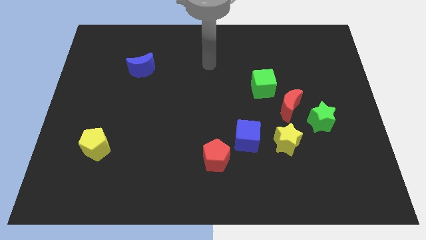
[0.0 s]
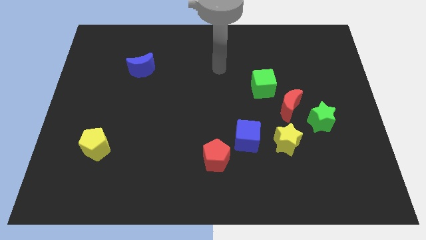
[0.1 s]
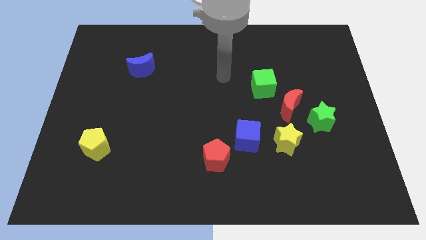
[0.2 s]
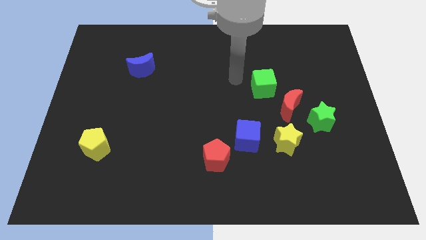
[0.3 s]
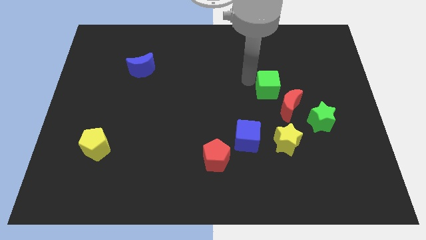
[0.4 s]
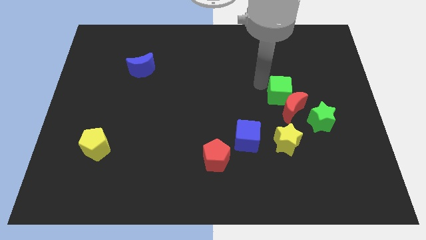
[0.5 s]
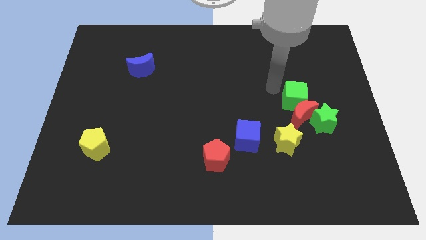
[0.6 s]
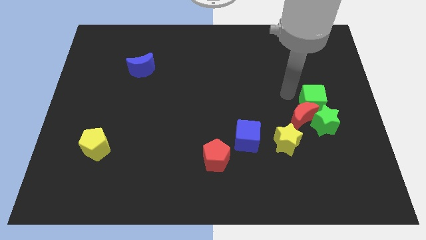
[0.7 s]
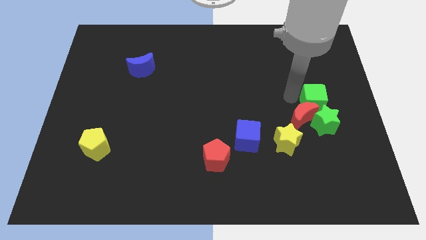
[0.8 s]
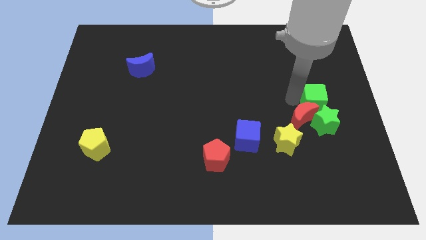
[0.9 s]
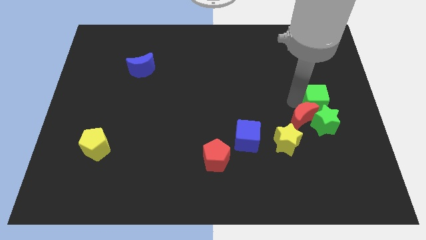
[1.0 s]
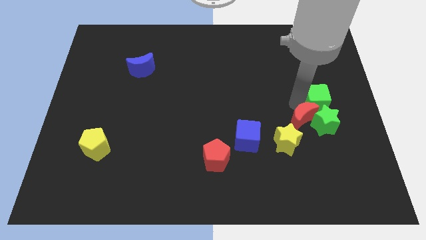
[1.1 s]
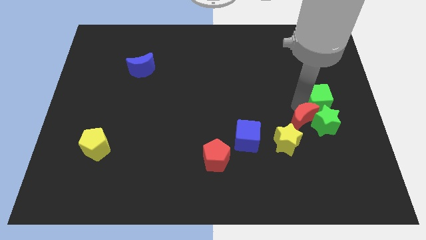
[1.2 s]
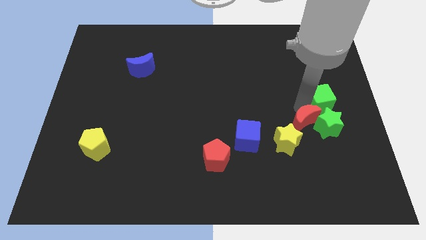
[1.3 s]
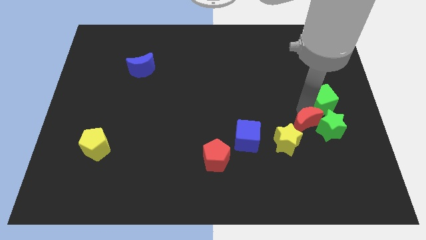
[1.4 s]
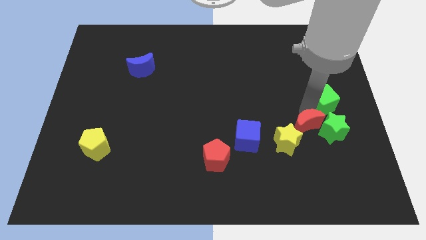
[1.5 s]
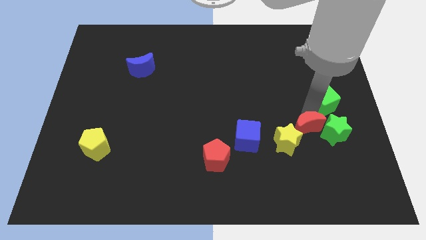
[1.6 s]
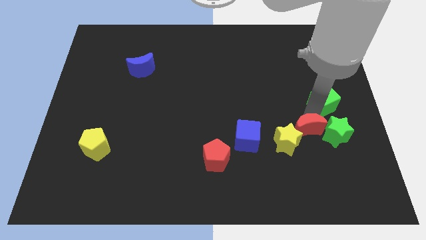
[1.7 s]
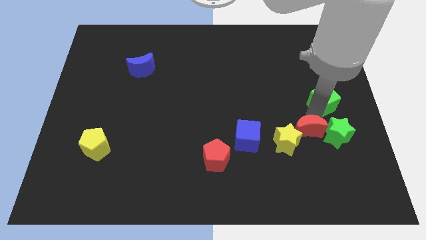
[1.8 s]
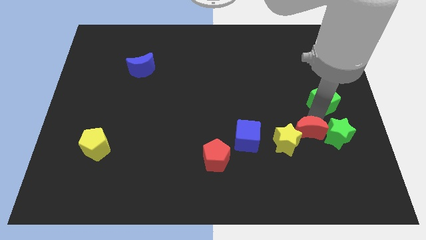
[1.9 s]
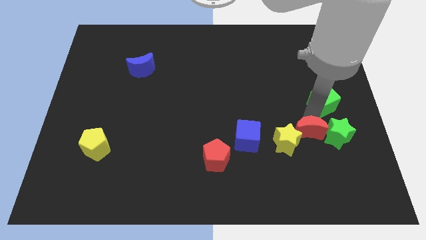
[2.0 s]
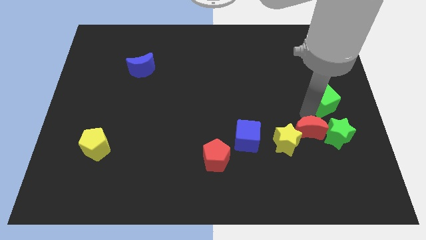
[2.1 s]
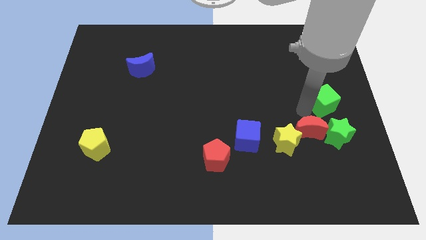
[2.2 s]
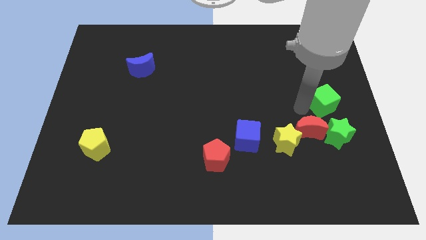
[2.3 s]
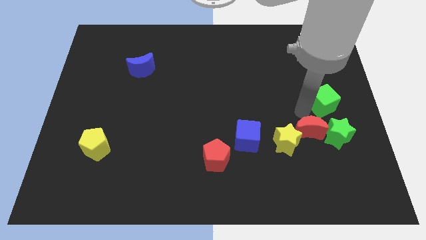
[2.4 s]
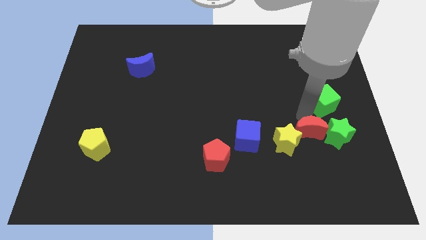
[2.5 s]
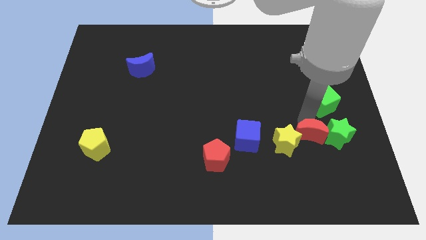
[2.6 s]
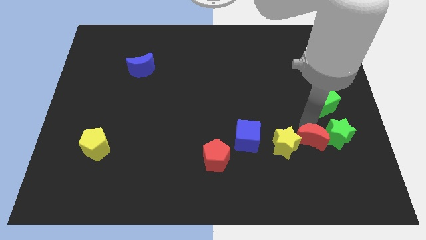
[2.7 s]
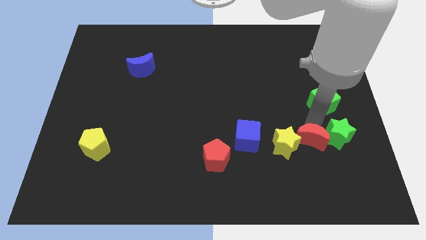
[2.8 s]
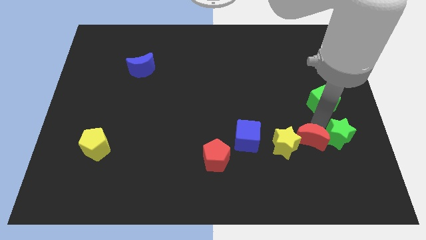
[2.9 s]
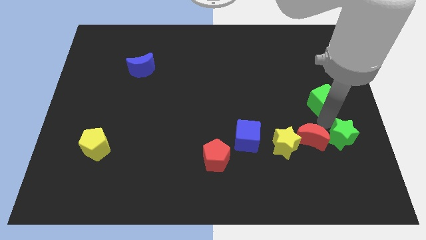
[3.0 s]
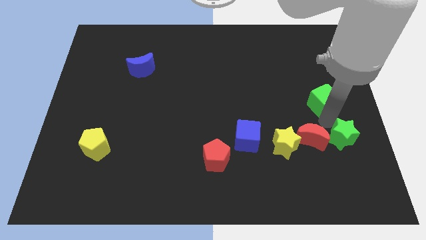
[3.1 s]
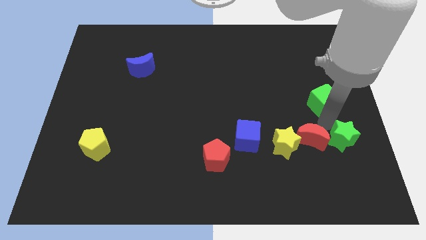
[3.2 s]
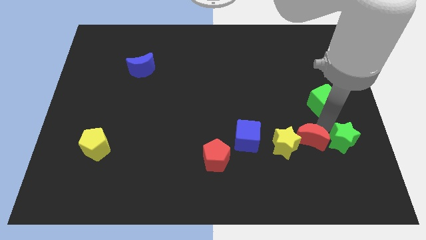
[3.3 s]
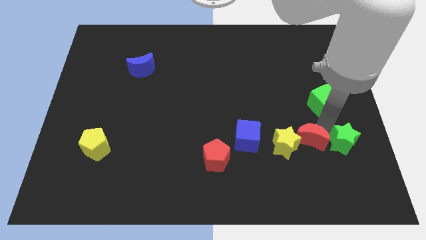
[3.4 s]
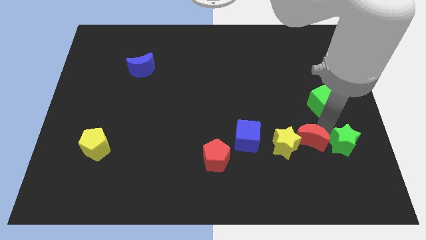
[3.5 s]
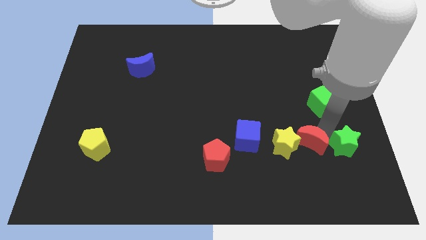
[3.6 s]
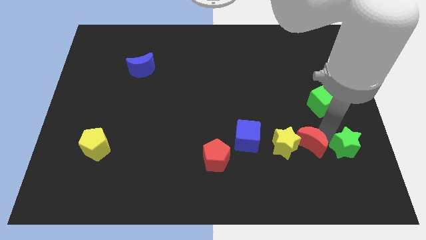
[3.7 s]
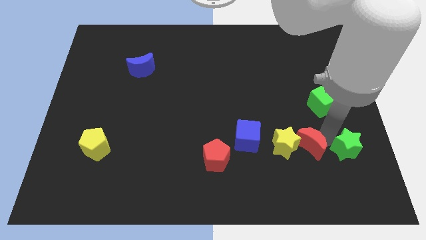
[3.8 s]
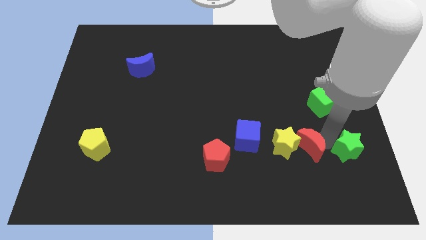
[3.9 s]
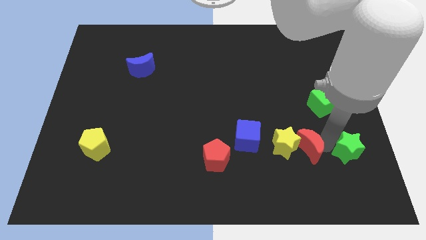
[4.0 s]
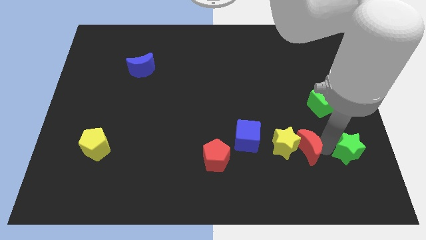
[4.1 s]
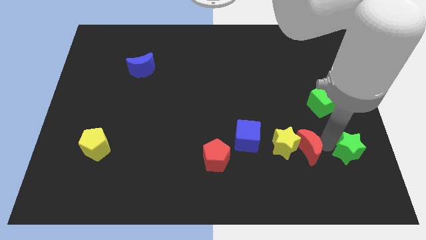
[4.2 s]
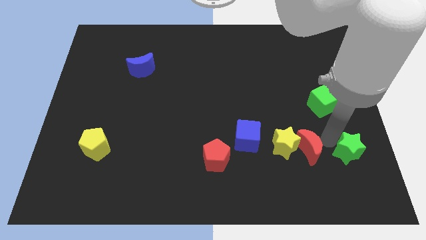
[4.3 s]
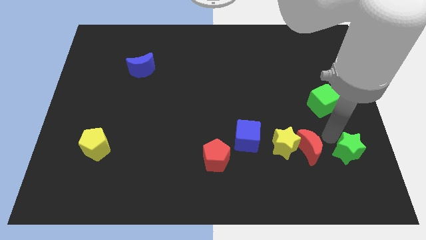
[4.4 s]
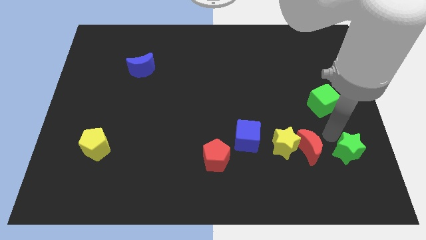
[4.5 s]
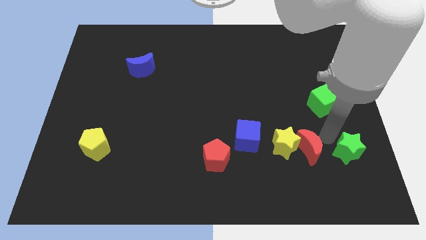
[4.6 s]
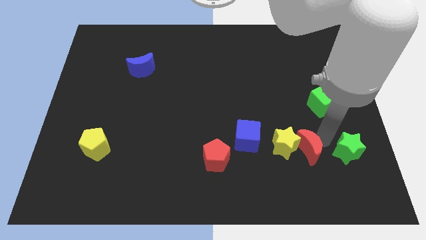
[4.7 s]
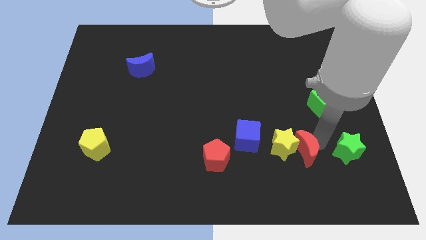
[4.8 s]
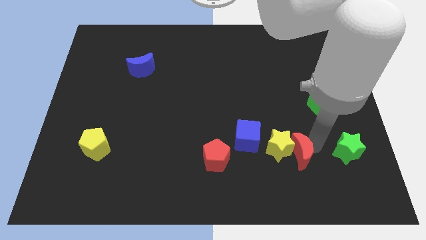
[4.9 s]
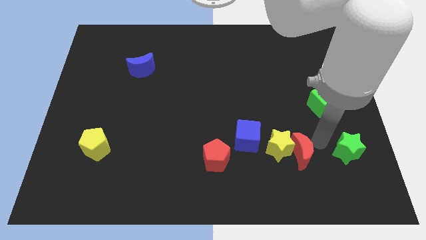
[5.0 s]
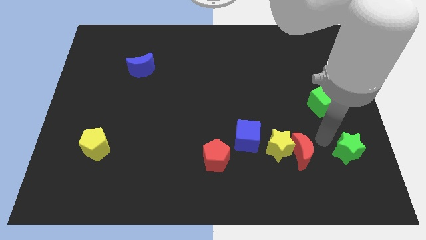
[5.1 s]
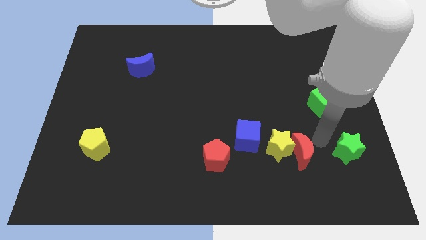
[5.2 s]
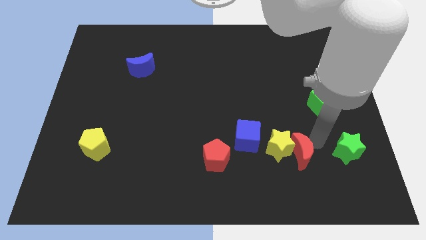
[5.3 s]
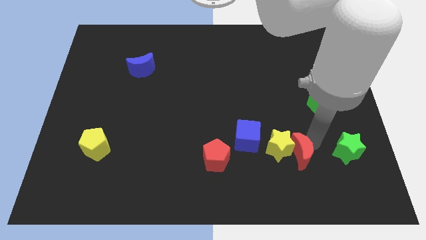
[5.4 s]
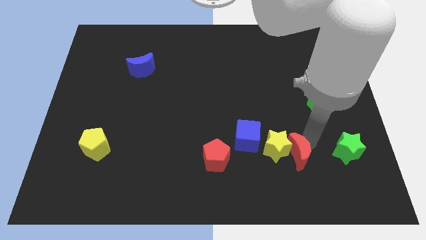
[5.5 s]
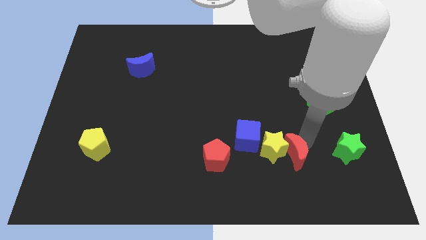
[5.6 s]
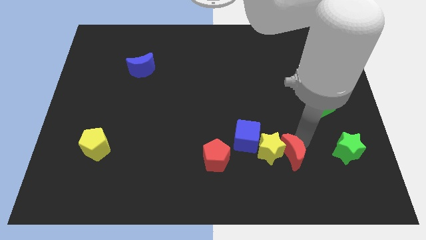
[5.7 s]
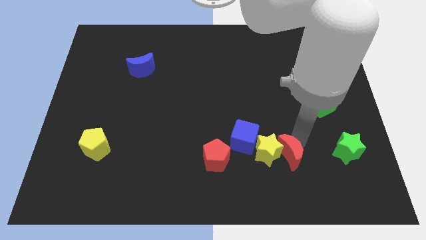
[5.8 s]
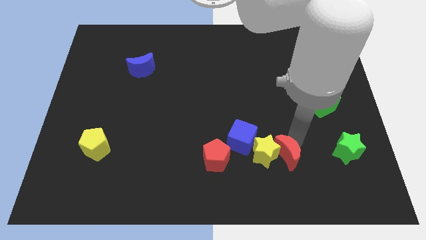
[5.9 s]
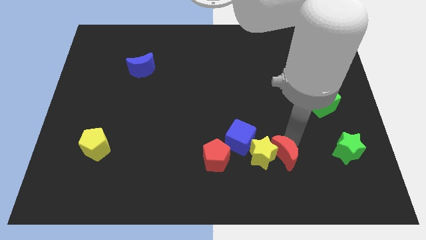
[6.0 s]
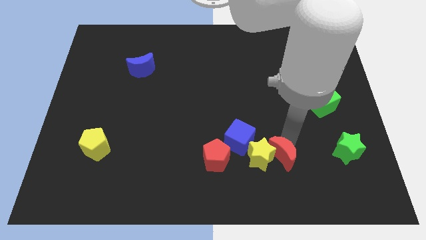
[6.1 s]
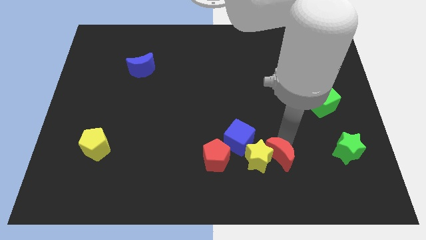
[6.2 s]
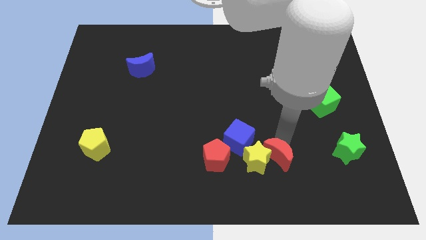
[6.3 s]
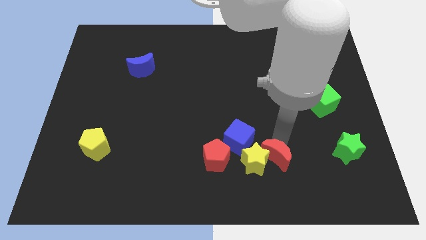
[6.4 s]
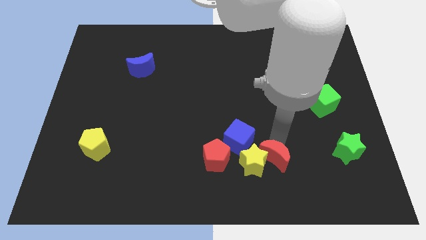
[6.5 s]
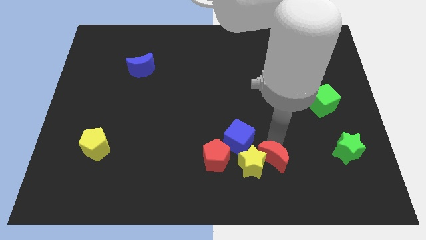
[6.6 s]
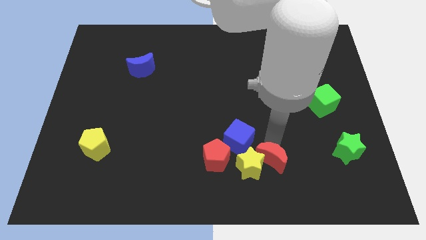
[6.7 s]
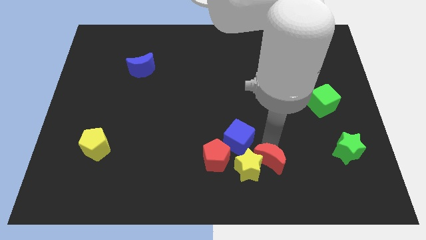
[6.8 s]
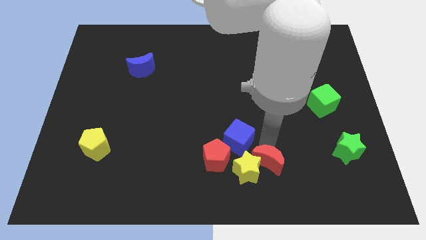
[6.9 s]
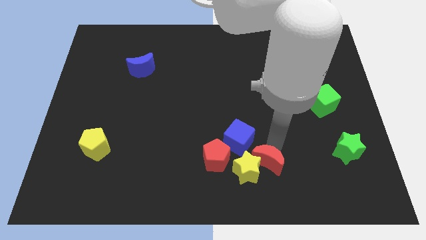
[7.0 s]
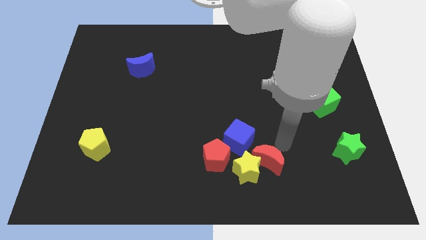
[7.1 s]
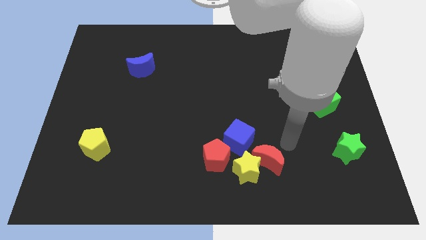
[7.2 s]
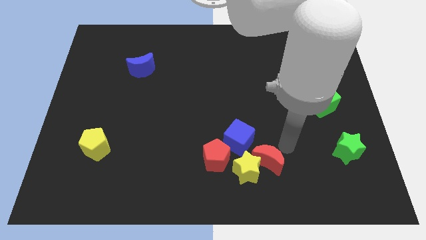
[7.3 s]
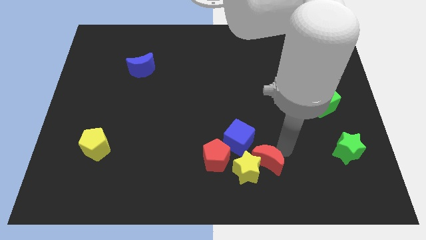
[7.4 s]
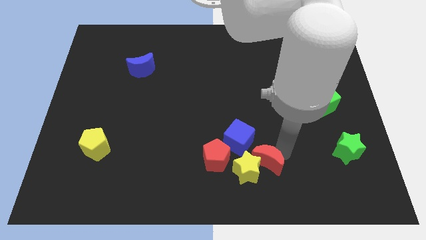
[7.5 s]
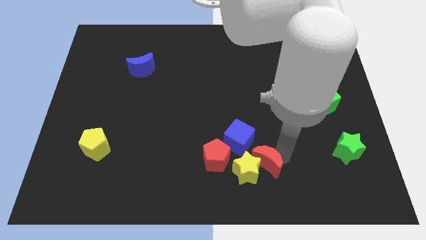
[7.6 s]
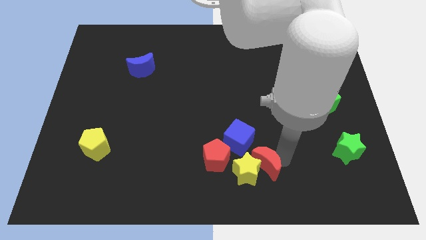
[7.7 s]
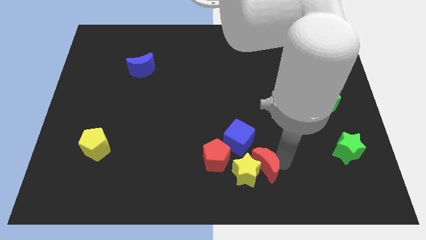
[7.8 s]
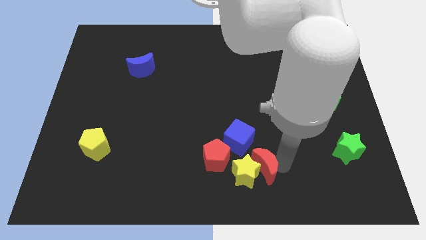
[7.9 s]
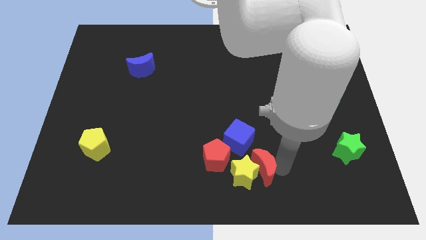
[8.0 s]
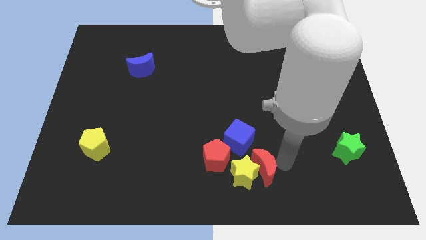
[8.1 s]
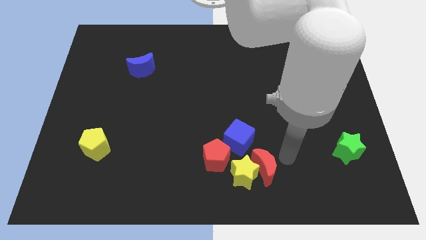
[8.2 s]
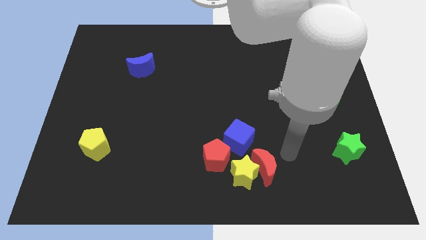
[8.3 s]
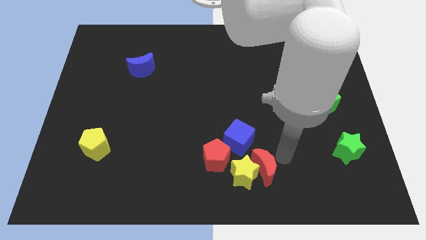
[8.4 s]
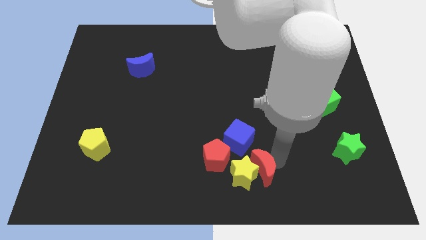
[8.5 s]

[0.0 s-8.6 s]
put the red moon to the bottom side of the blue cube
